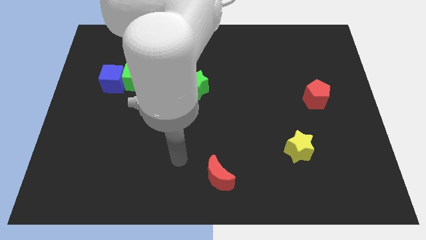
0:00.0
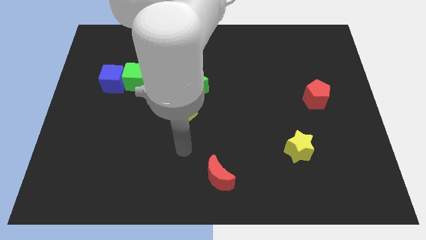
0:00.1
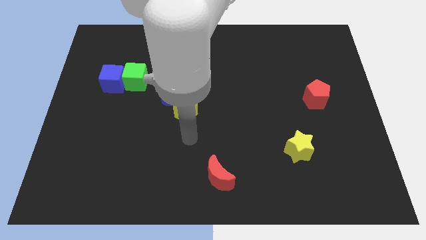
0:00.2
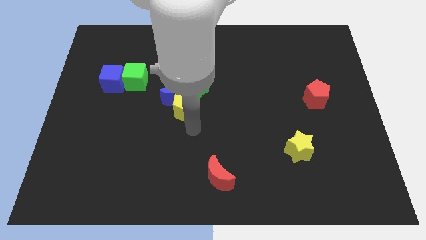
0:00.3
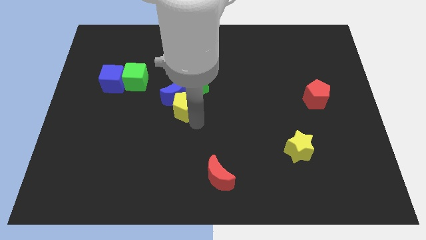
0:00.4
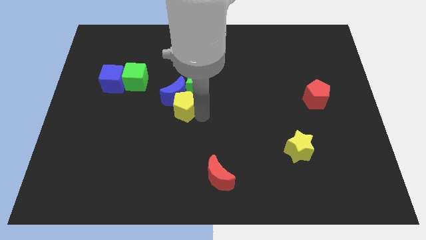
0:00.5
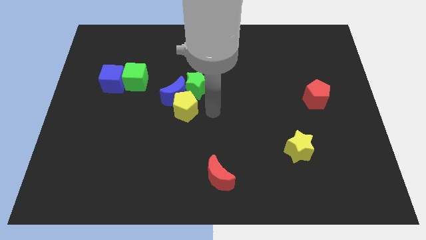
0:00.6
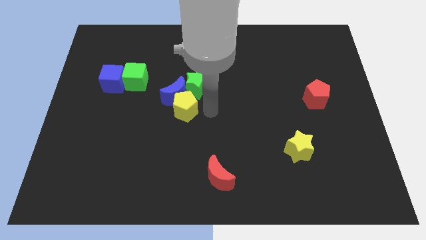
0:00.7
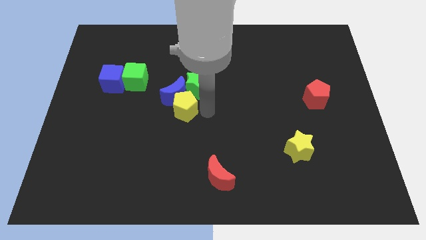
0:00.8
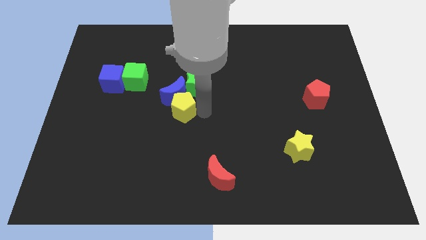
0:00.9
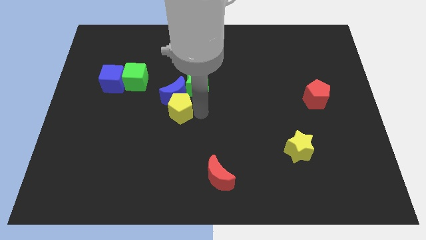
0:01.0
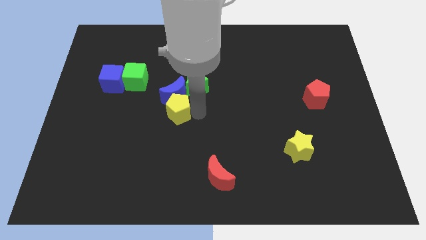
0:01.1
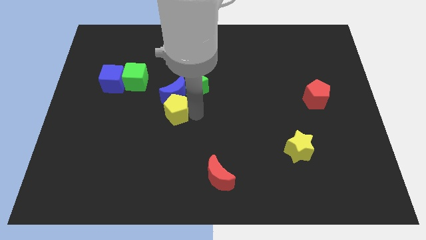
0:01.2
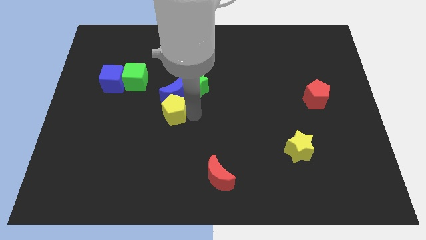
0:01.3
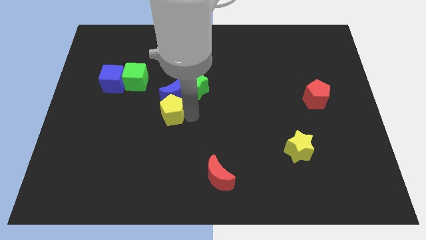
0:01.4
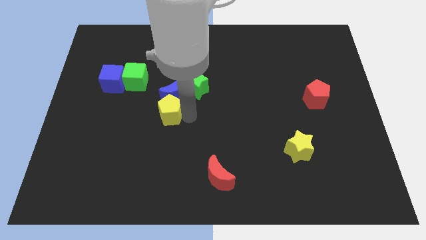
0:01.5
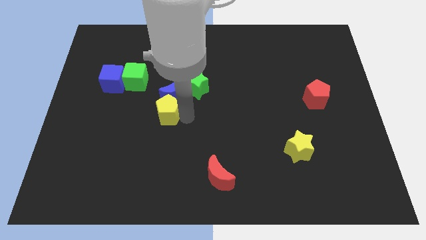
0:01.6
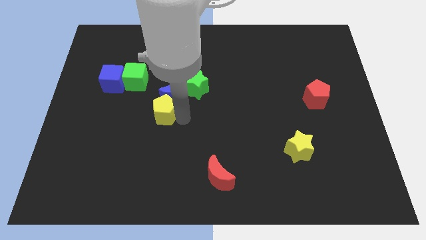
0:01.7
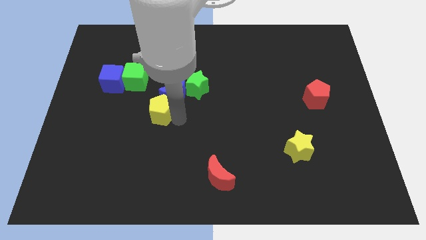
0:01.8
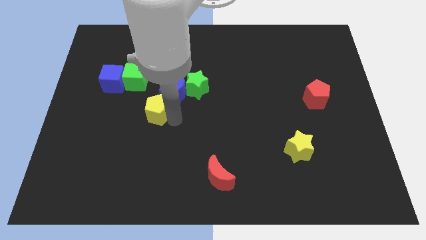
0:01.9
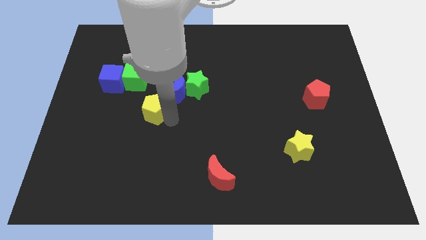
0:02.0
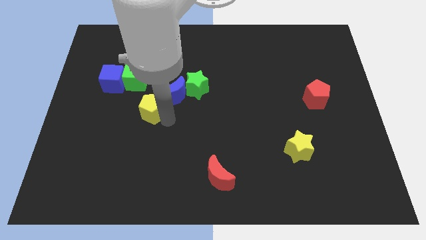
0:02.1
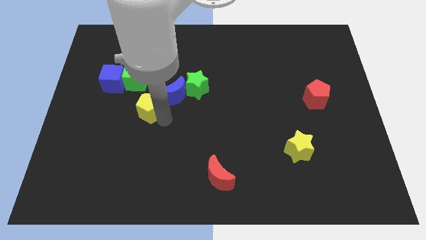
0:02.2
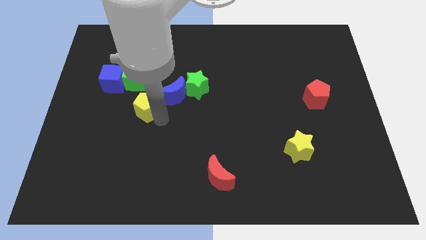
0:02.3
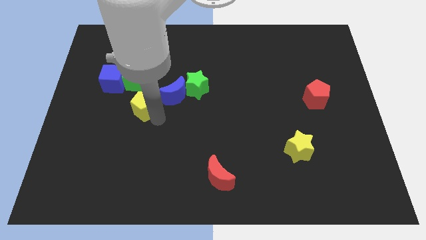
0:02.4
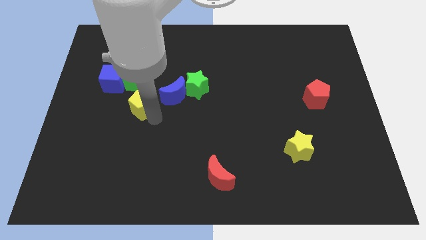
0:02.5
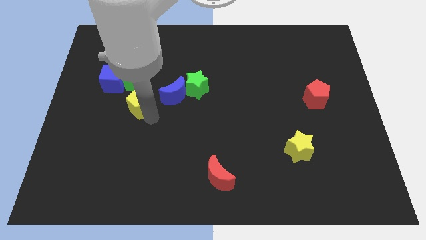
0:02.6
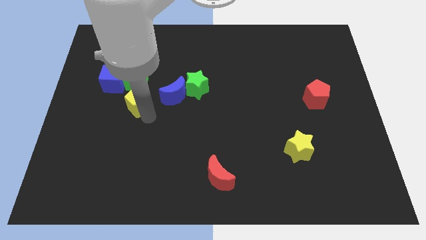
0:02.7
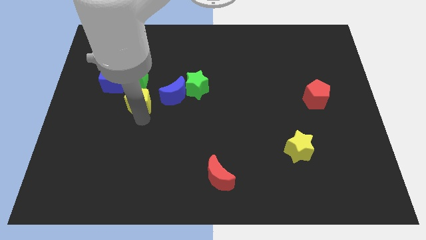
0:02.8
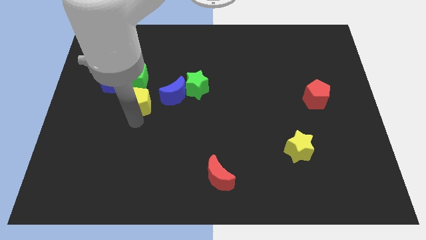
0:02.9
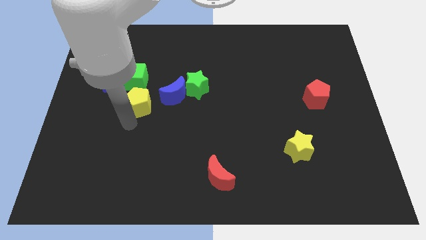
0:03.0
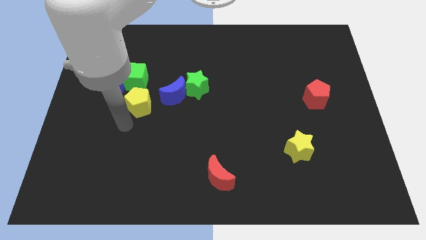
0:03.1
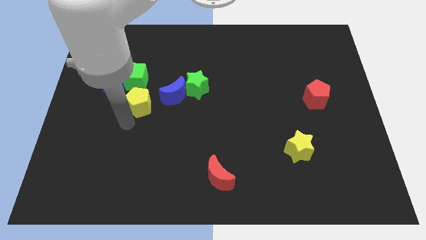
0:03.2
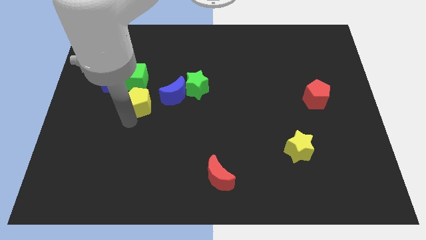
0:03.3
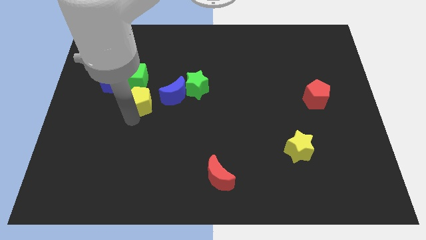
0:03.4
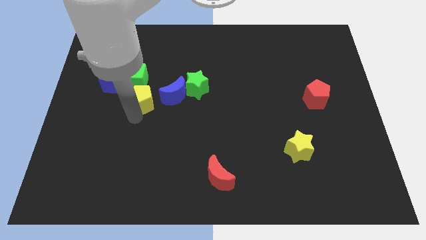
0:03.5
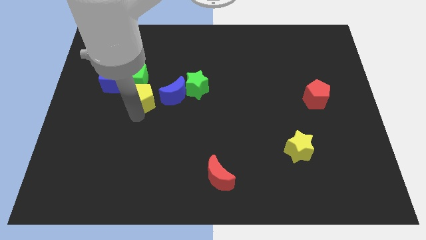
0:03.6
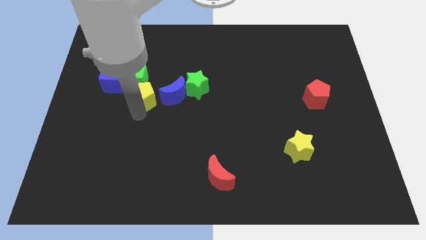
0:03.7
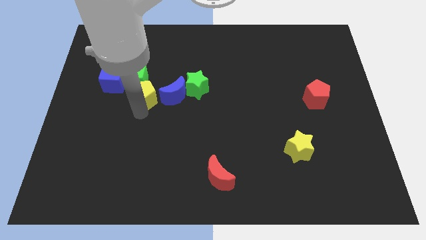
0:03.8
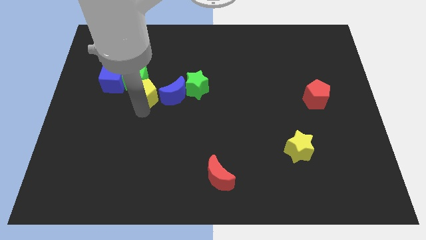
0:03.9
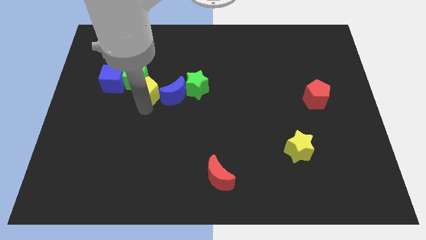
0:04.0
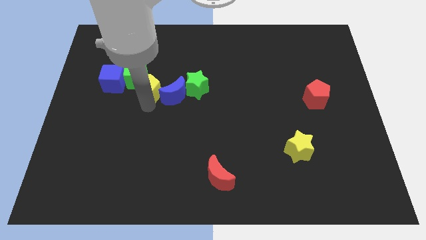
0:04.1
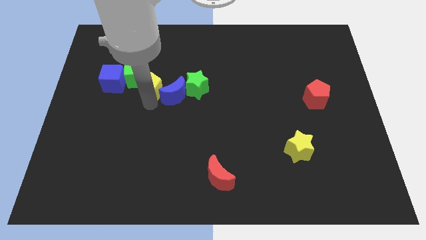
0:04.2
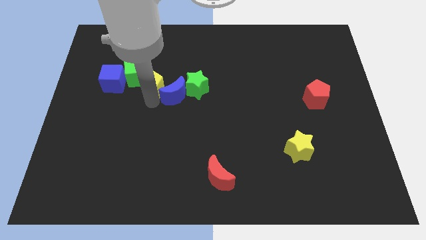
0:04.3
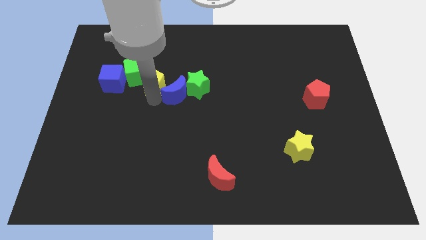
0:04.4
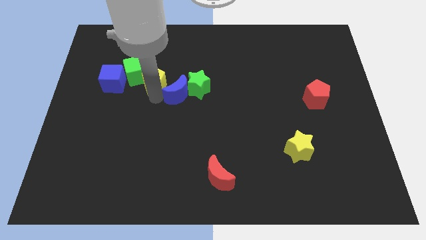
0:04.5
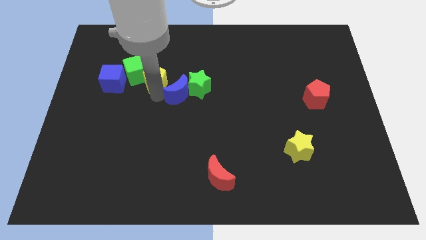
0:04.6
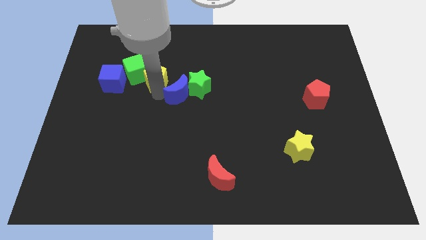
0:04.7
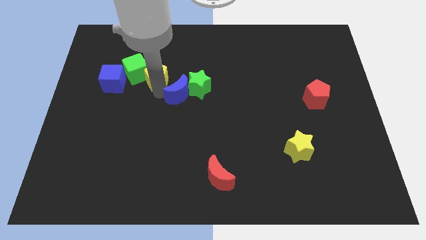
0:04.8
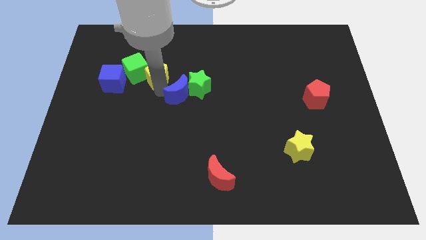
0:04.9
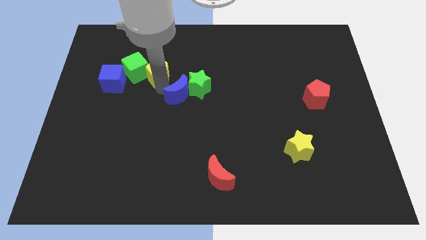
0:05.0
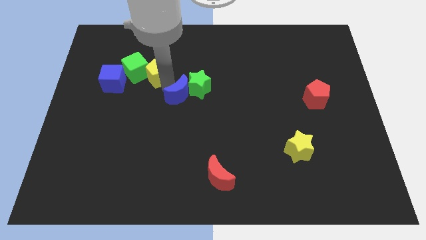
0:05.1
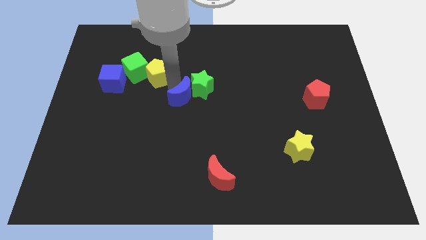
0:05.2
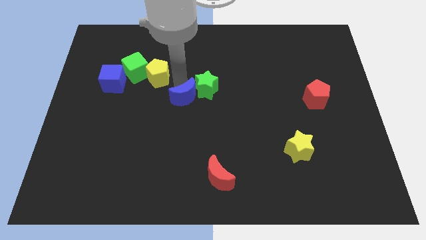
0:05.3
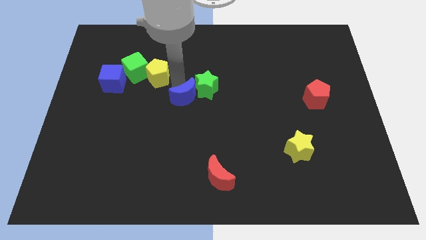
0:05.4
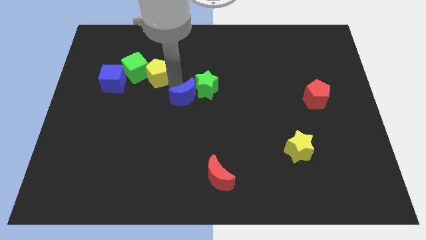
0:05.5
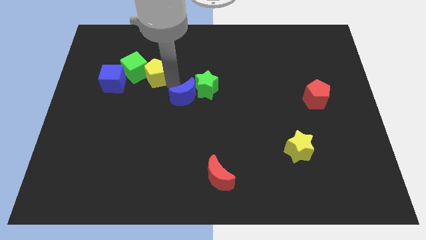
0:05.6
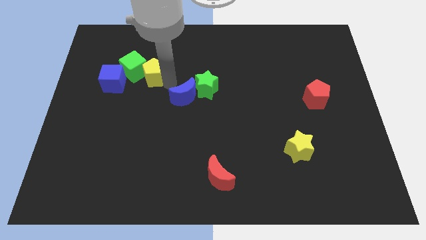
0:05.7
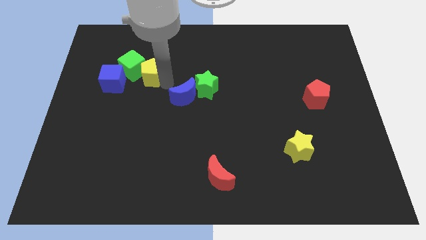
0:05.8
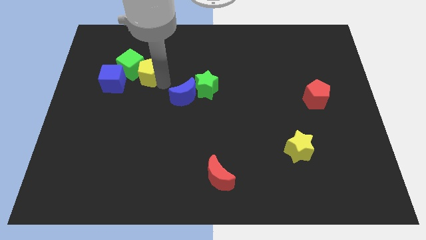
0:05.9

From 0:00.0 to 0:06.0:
put the yellow pentagon diagonally up and to the right of the blue cube

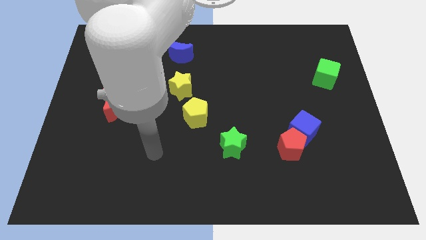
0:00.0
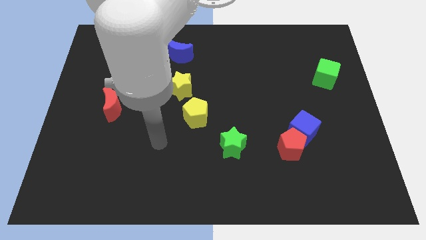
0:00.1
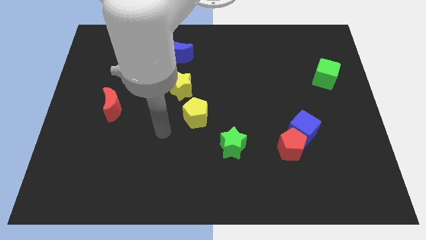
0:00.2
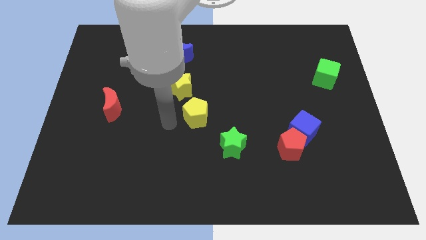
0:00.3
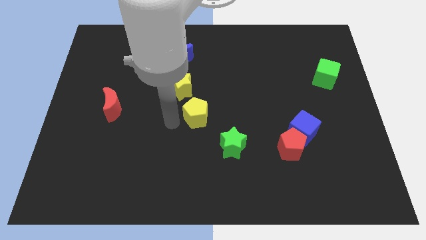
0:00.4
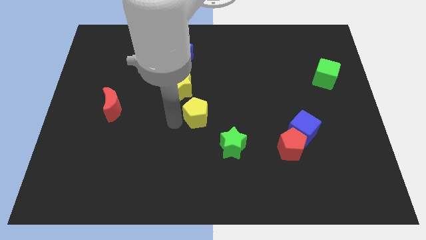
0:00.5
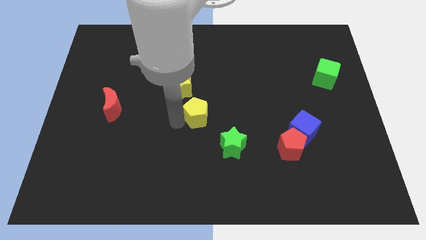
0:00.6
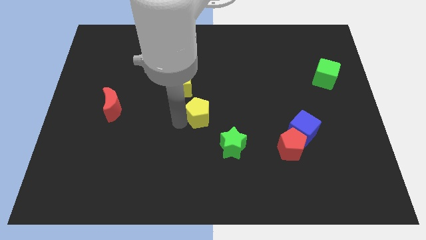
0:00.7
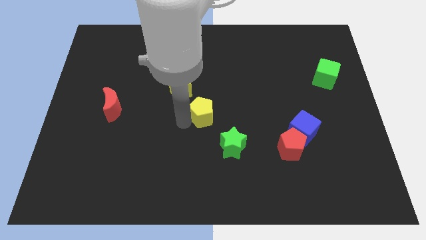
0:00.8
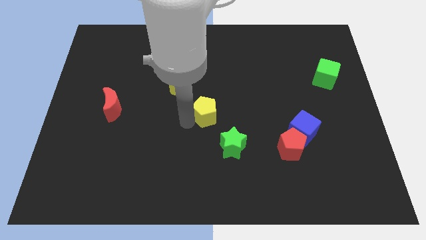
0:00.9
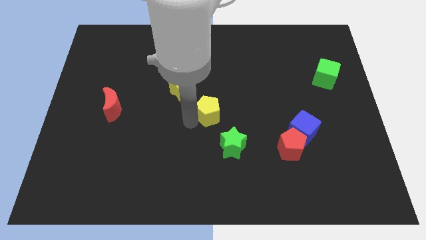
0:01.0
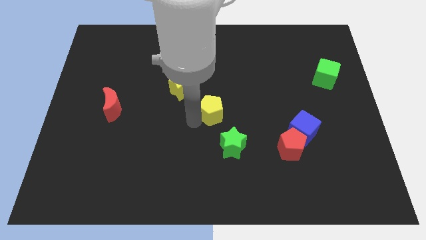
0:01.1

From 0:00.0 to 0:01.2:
put the yellow pentagon above the green star
